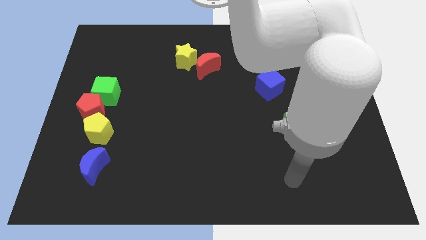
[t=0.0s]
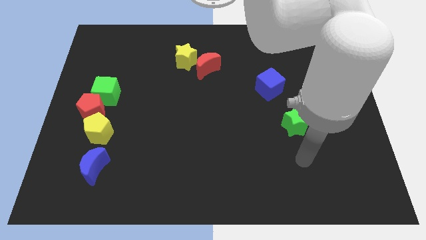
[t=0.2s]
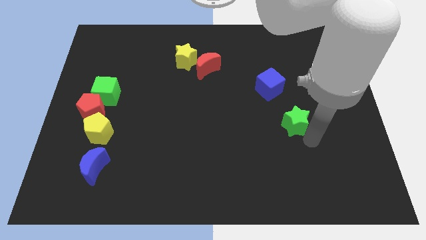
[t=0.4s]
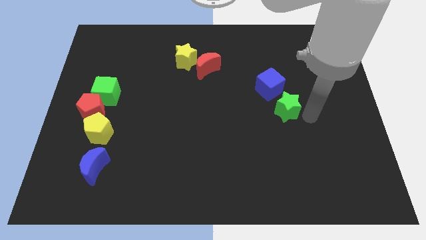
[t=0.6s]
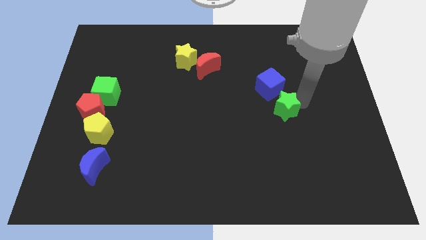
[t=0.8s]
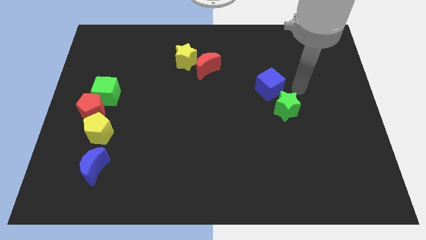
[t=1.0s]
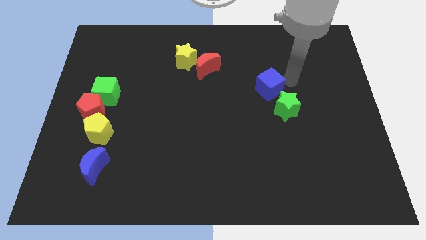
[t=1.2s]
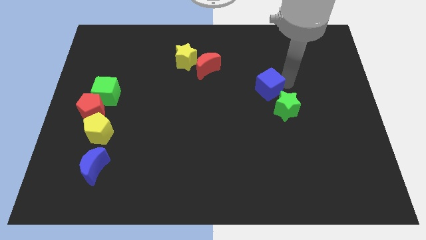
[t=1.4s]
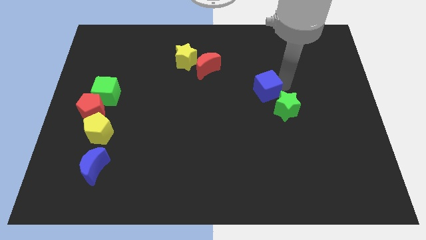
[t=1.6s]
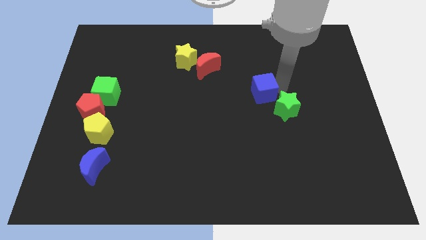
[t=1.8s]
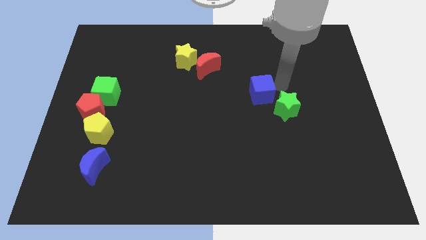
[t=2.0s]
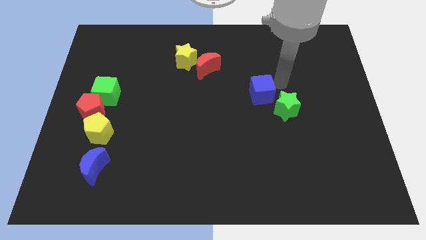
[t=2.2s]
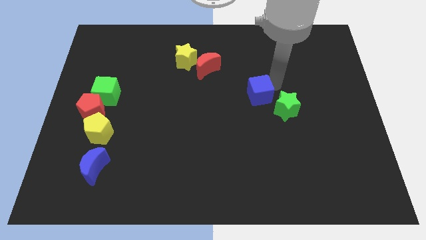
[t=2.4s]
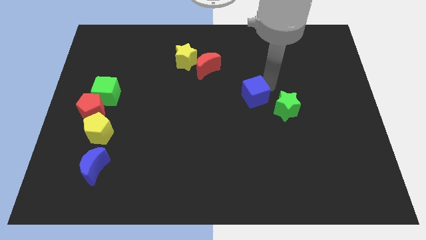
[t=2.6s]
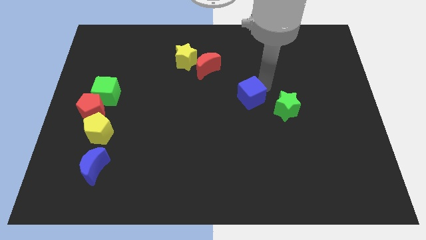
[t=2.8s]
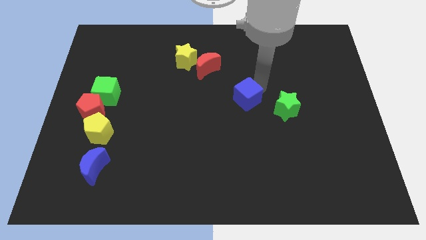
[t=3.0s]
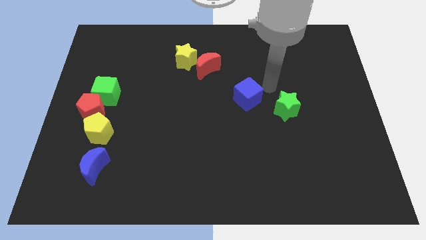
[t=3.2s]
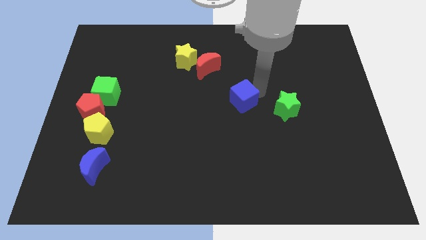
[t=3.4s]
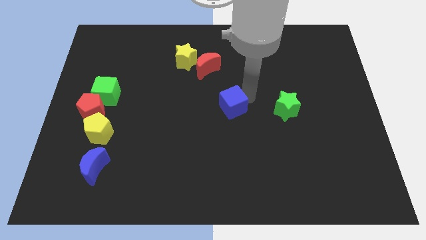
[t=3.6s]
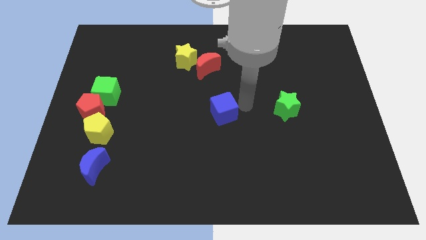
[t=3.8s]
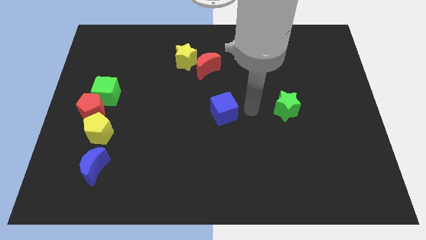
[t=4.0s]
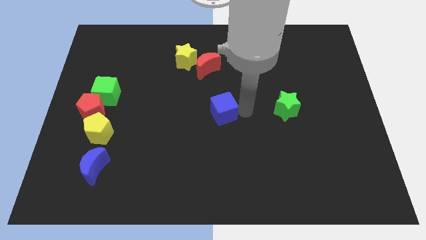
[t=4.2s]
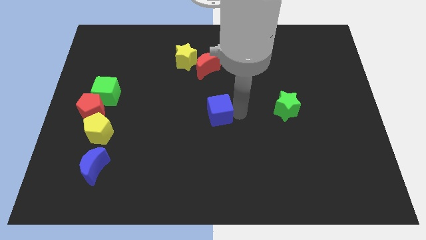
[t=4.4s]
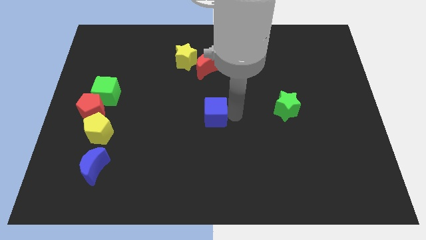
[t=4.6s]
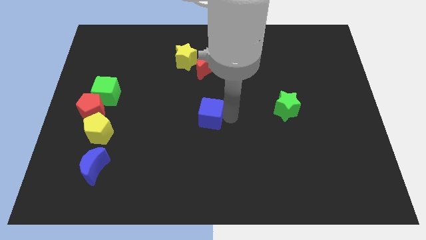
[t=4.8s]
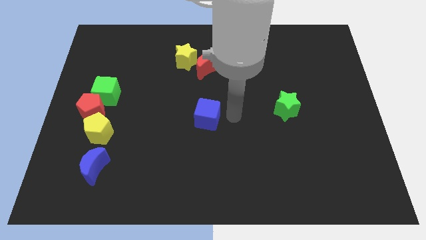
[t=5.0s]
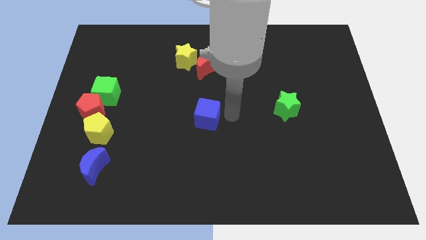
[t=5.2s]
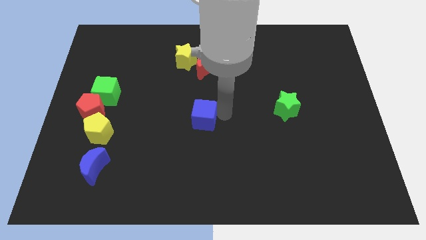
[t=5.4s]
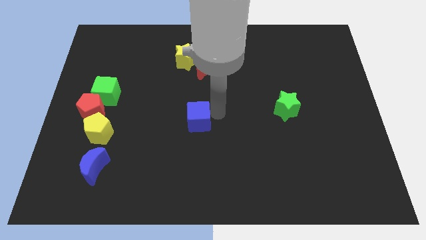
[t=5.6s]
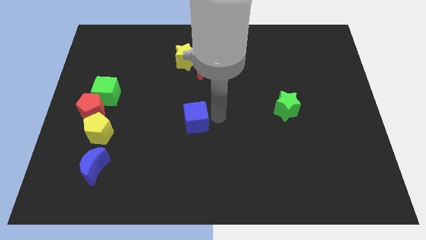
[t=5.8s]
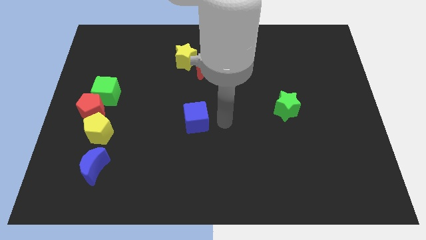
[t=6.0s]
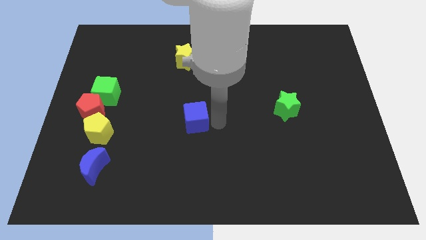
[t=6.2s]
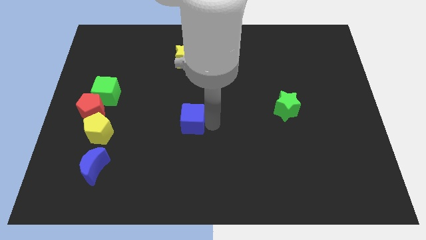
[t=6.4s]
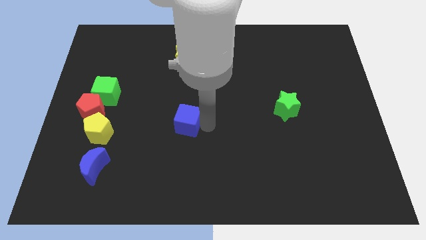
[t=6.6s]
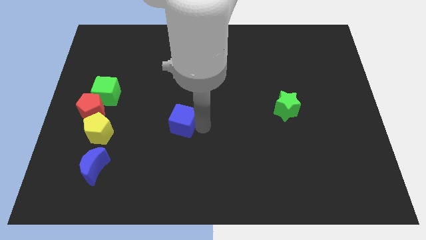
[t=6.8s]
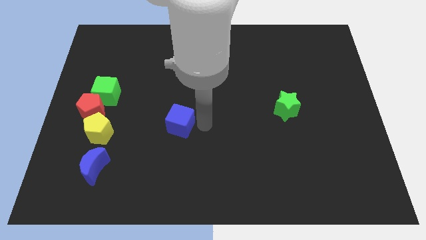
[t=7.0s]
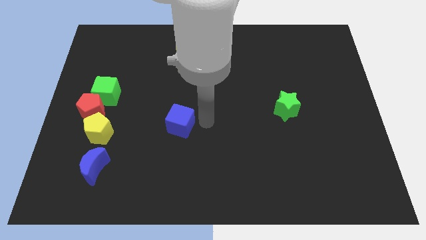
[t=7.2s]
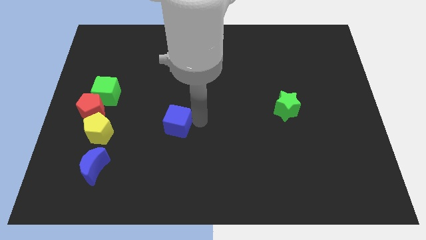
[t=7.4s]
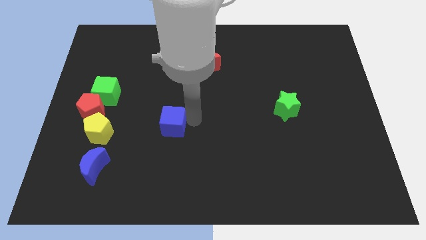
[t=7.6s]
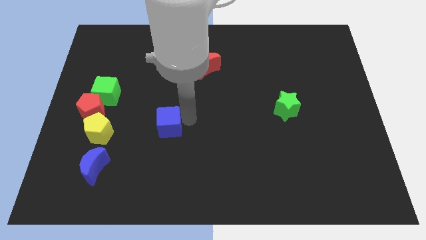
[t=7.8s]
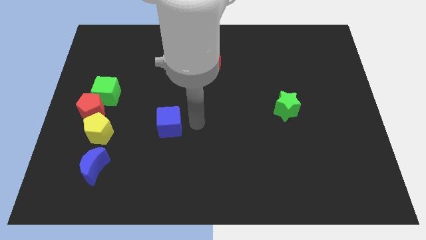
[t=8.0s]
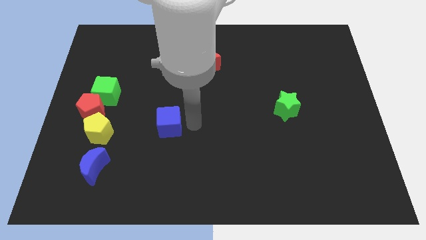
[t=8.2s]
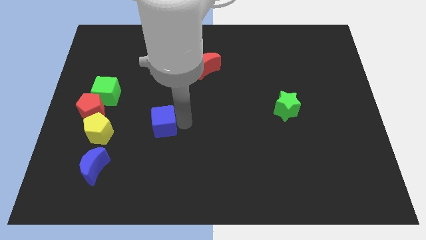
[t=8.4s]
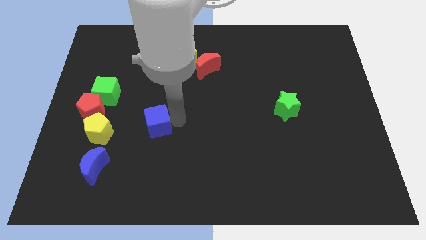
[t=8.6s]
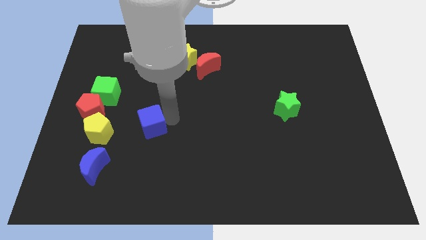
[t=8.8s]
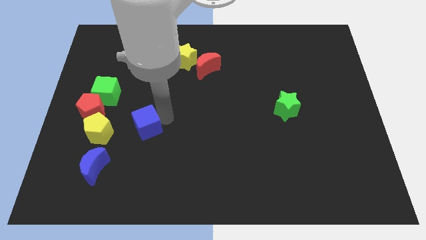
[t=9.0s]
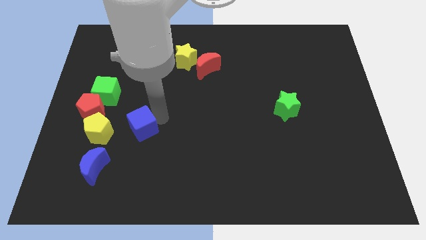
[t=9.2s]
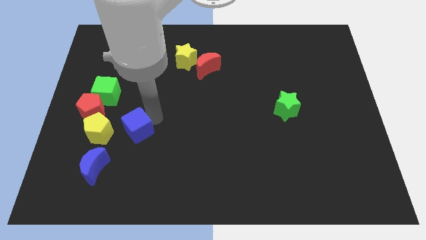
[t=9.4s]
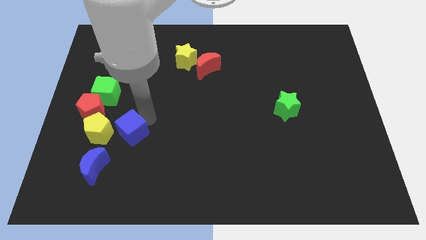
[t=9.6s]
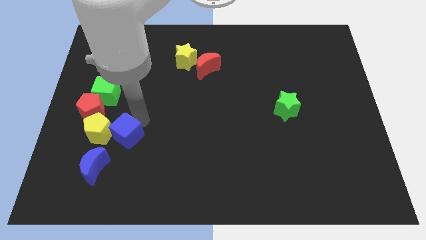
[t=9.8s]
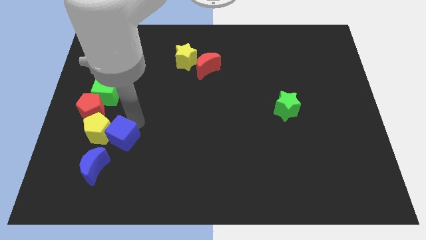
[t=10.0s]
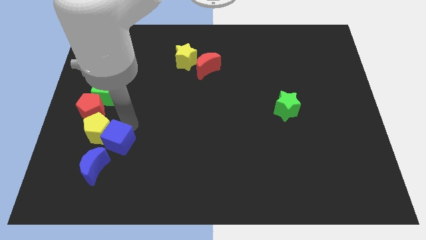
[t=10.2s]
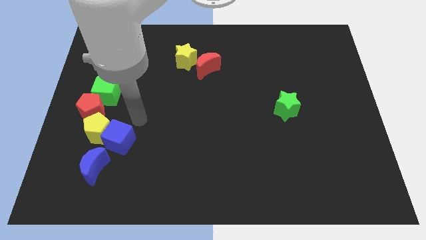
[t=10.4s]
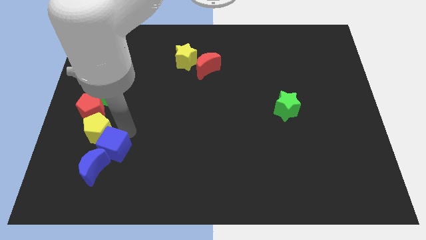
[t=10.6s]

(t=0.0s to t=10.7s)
slide the blue cube next to the blue moon

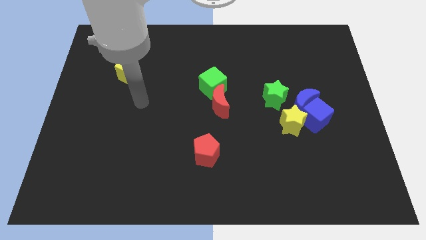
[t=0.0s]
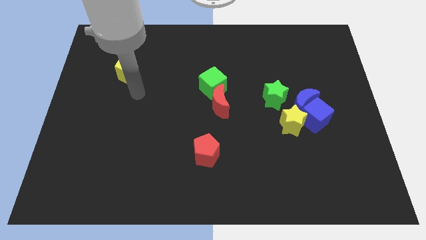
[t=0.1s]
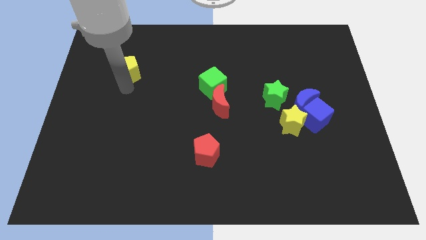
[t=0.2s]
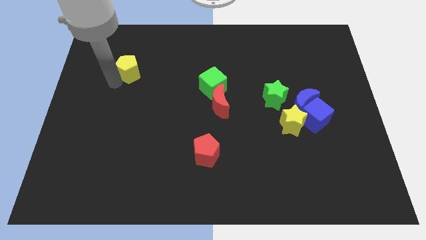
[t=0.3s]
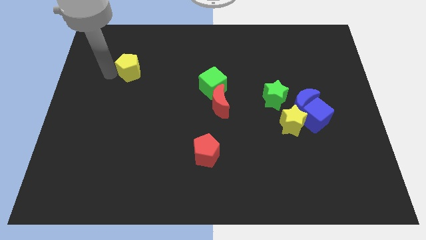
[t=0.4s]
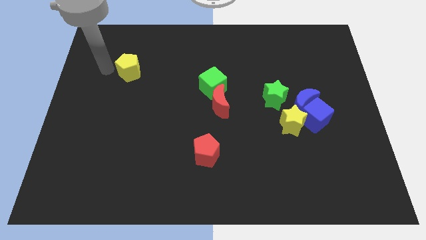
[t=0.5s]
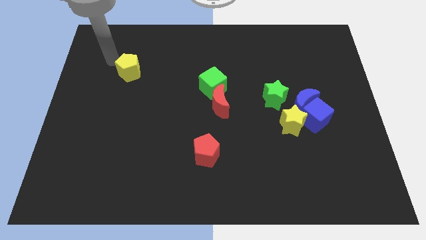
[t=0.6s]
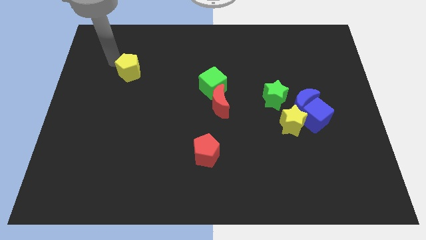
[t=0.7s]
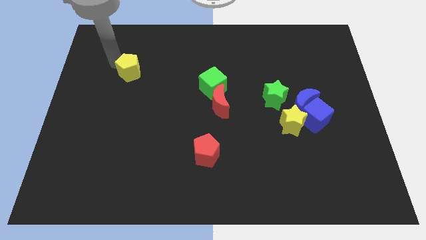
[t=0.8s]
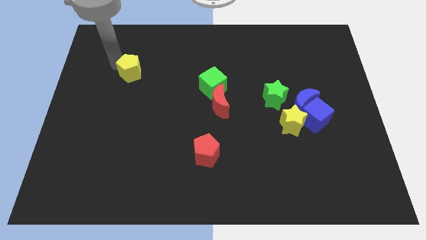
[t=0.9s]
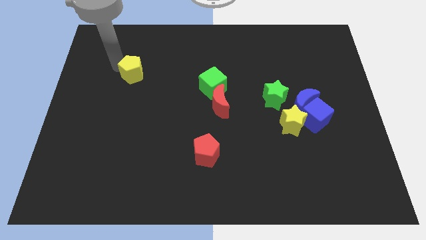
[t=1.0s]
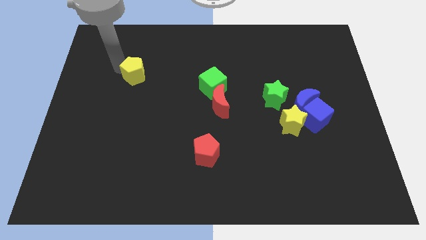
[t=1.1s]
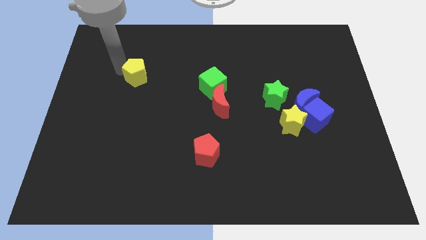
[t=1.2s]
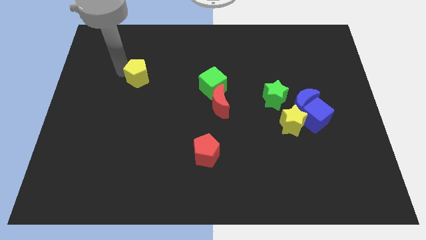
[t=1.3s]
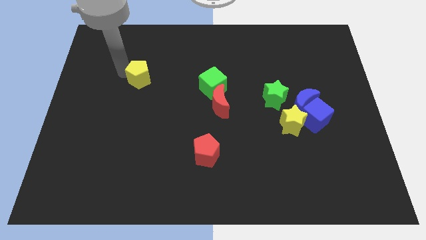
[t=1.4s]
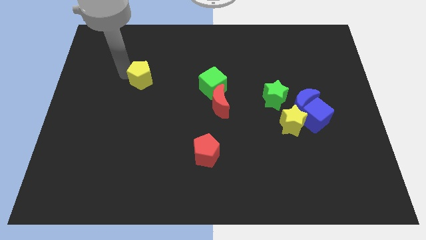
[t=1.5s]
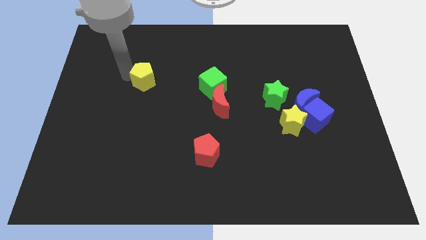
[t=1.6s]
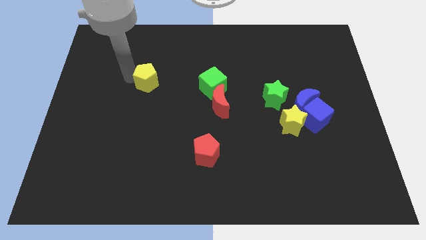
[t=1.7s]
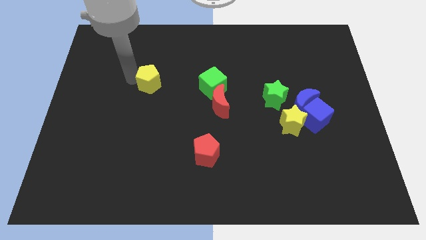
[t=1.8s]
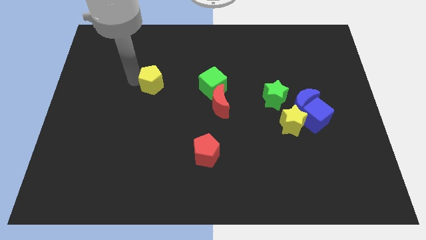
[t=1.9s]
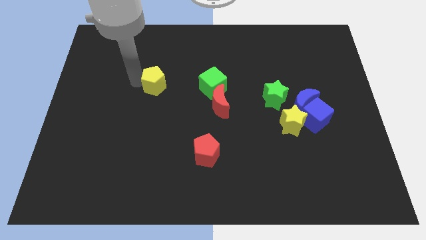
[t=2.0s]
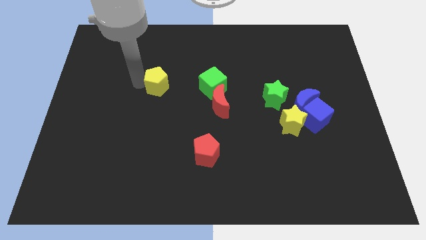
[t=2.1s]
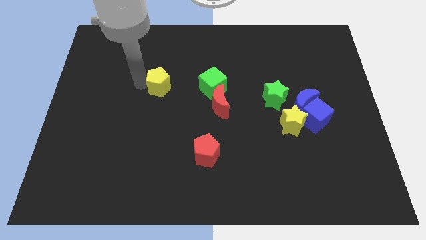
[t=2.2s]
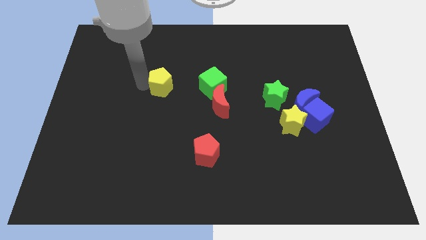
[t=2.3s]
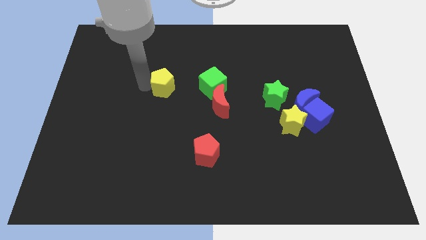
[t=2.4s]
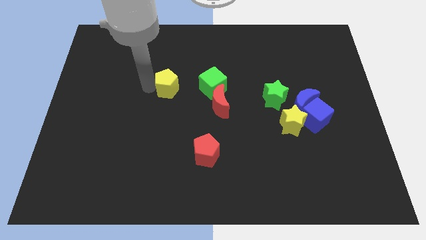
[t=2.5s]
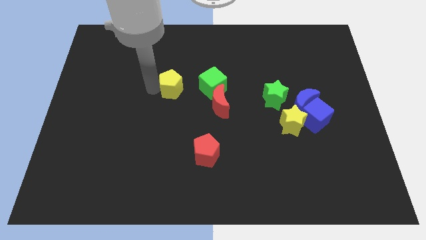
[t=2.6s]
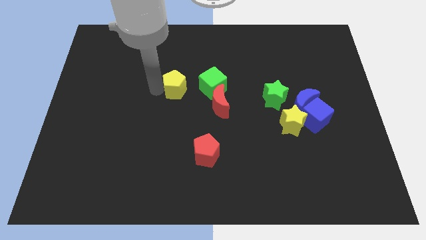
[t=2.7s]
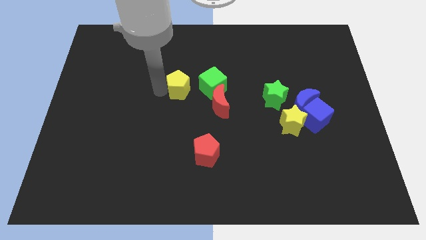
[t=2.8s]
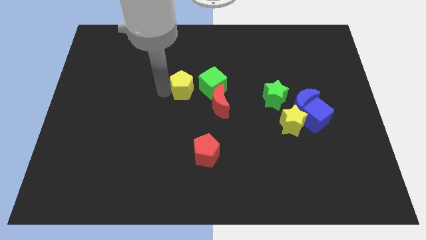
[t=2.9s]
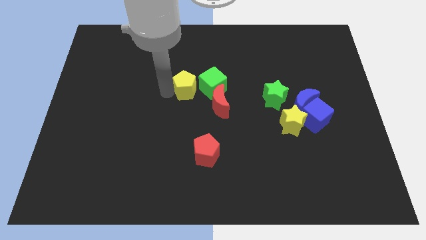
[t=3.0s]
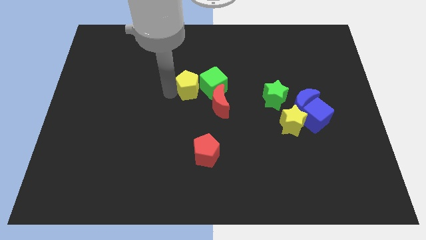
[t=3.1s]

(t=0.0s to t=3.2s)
slide the yellow pentagon towards the green cube
